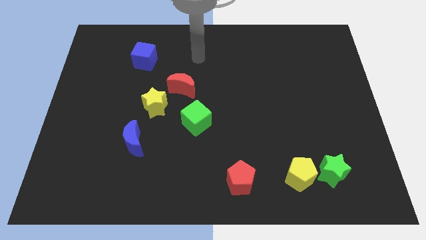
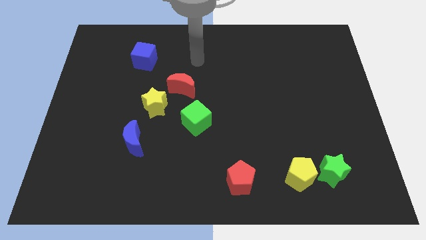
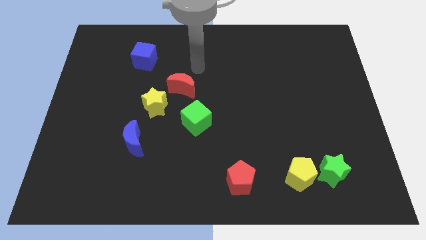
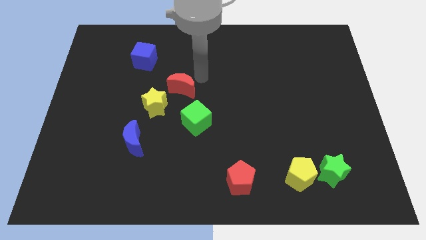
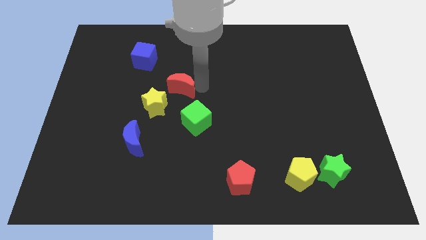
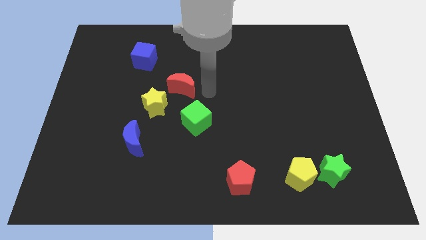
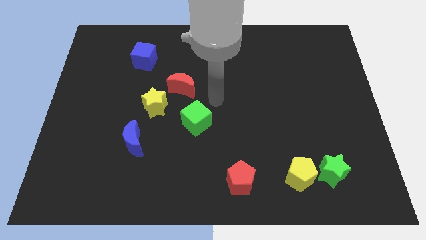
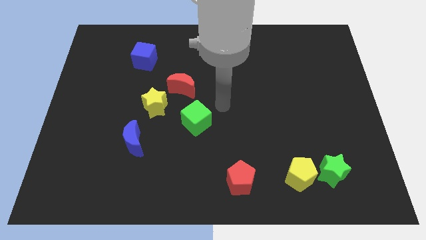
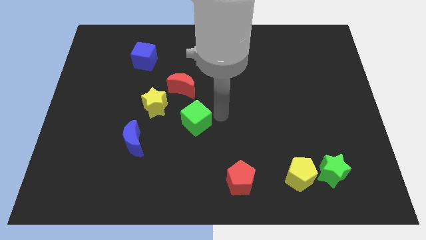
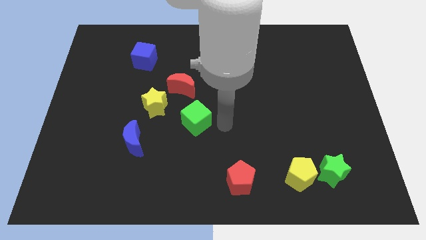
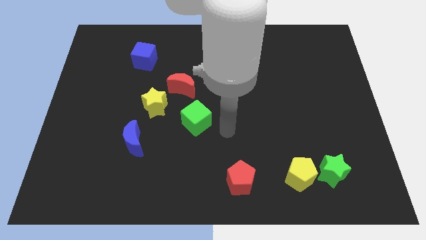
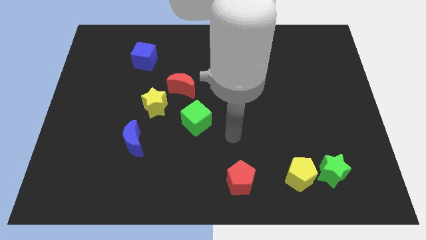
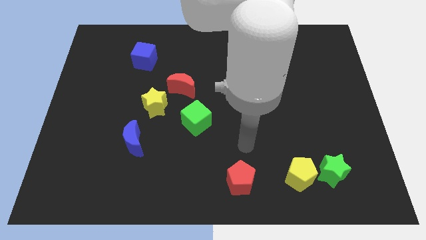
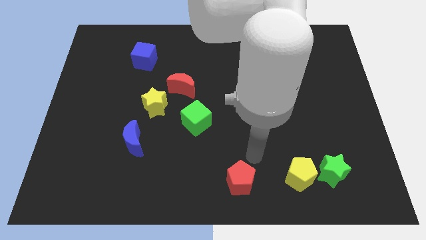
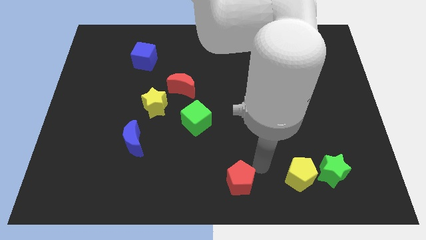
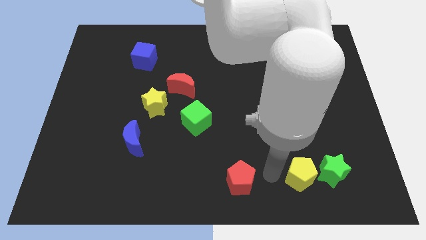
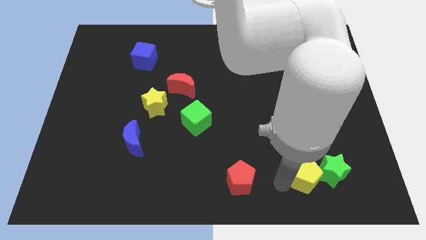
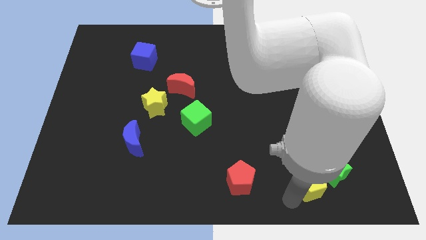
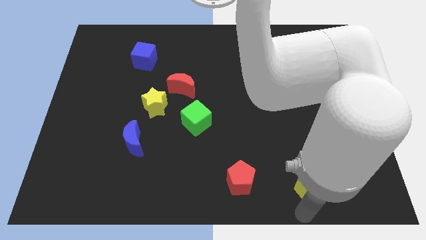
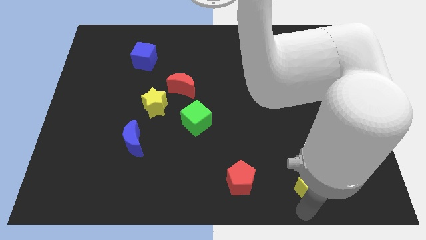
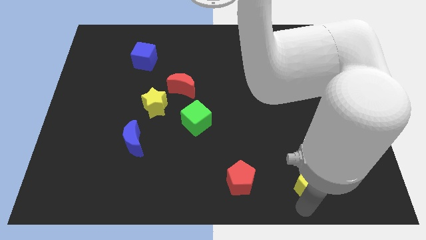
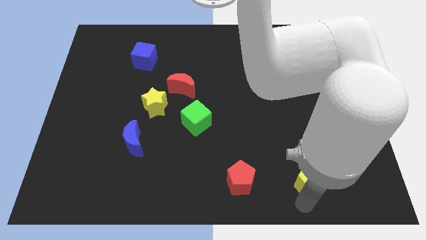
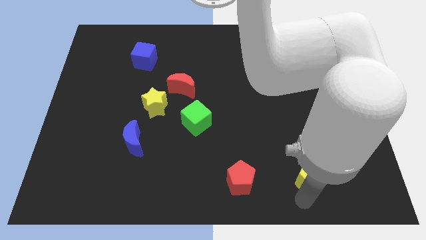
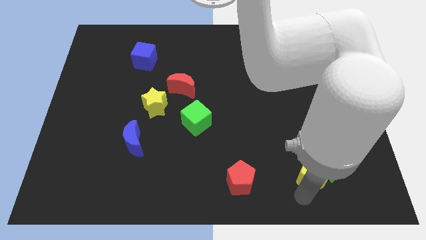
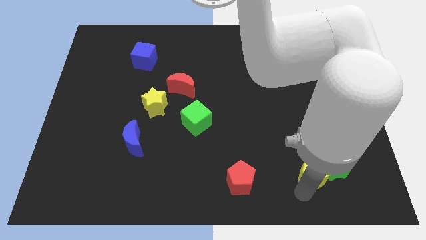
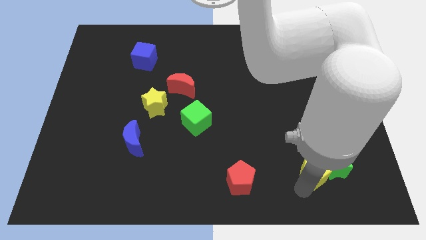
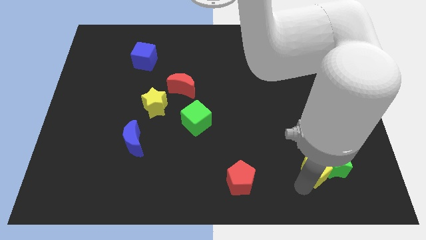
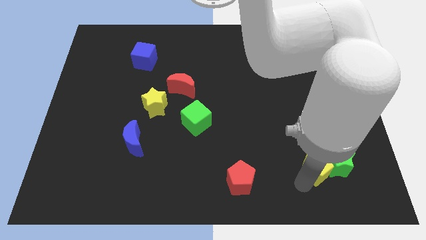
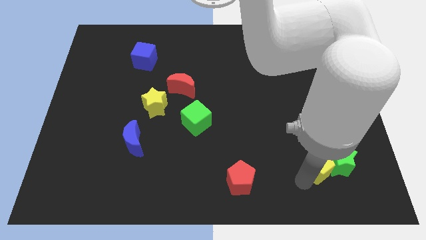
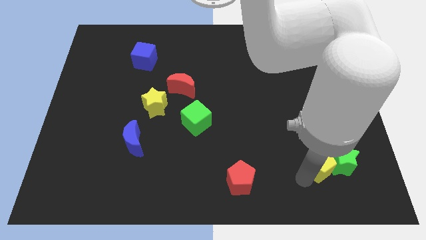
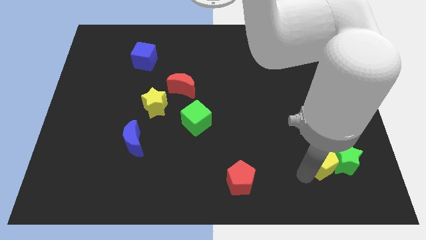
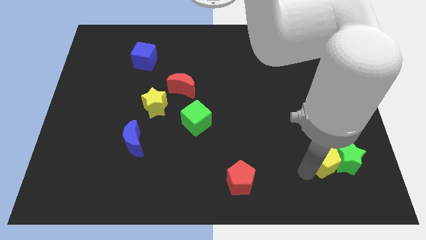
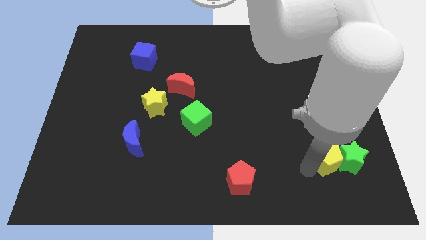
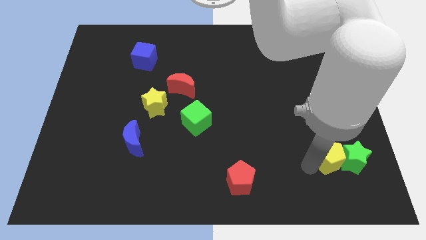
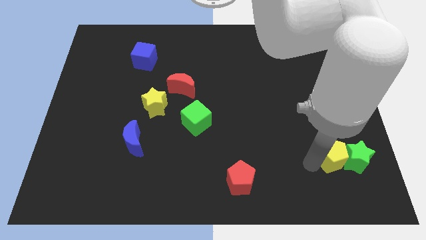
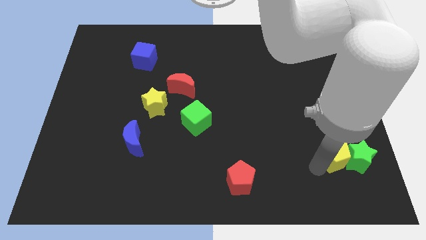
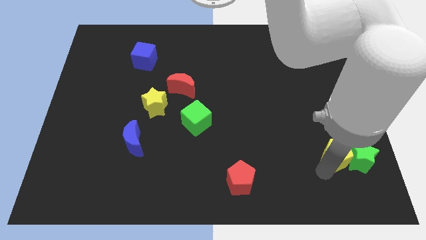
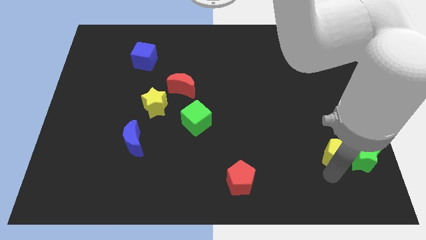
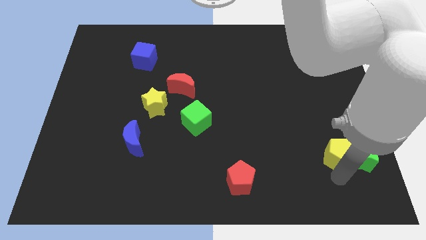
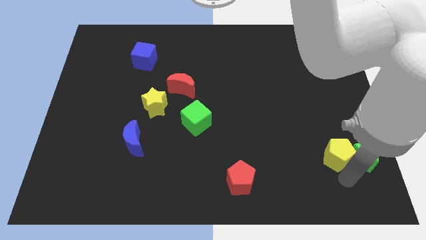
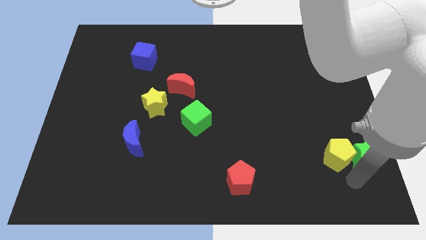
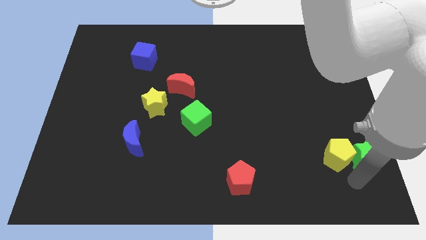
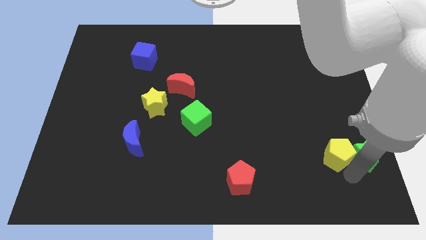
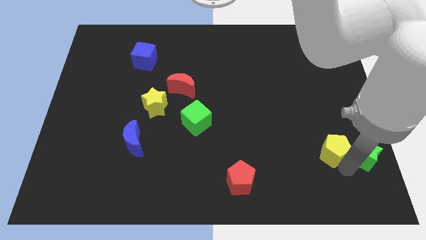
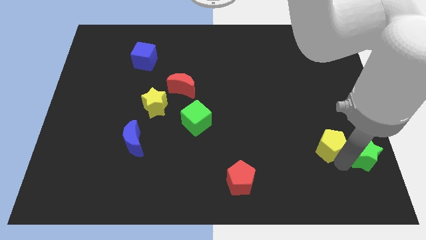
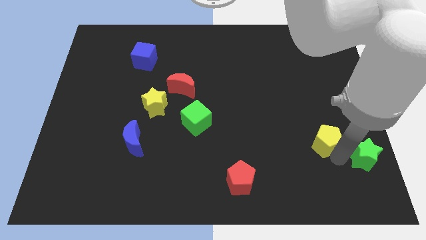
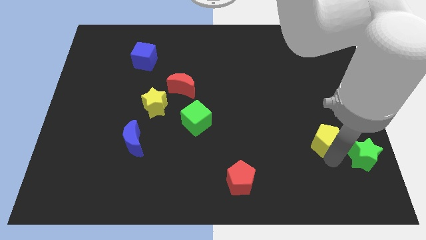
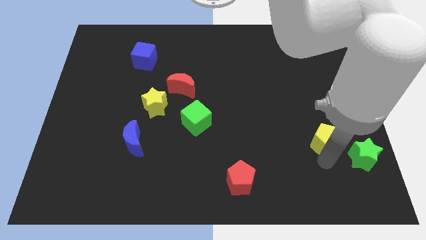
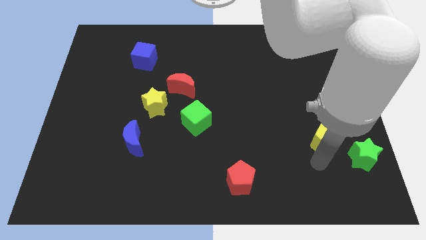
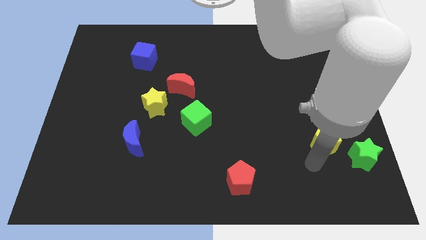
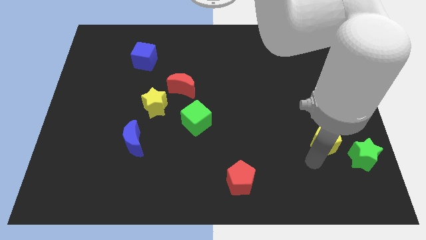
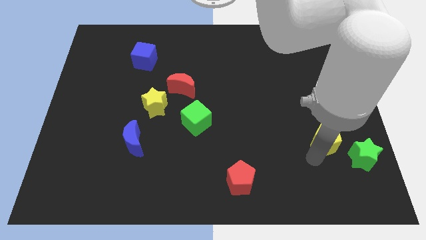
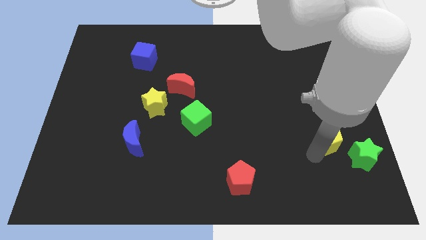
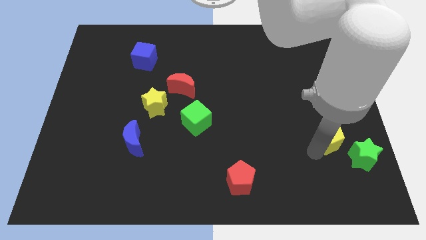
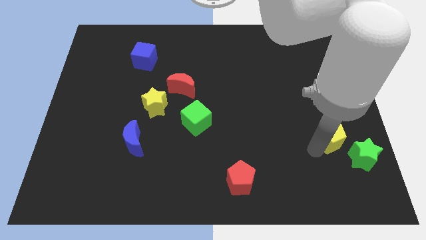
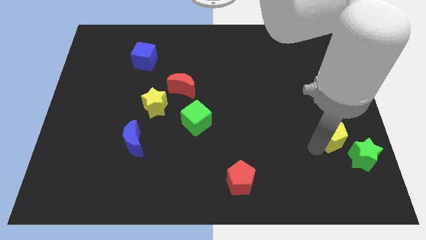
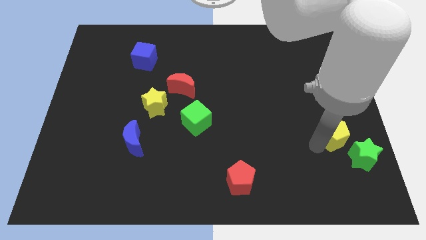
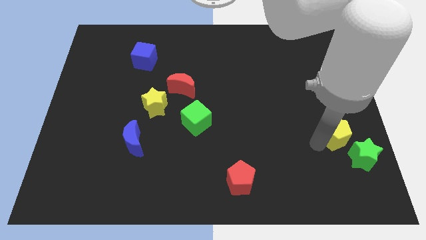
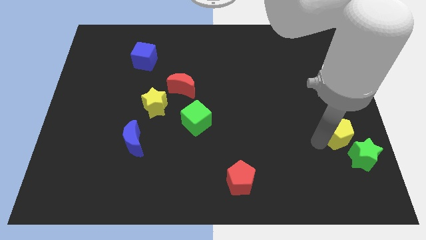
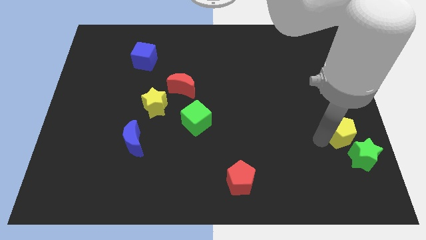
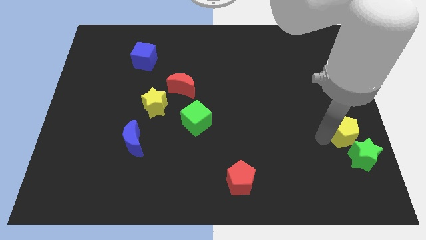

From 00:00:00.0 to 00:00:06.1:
slide the yellow pentagon to the right side

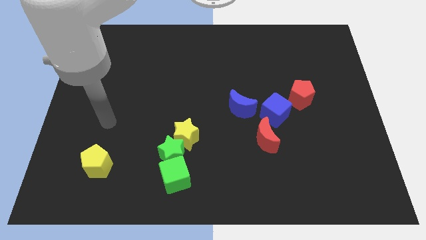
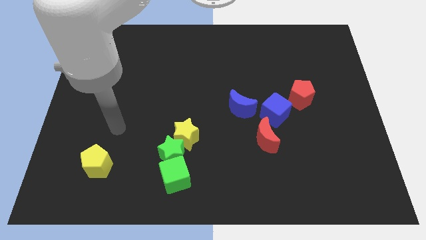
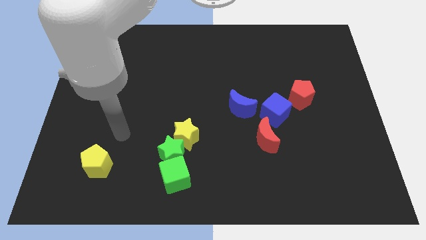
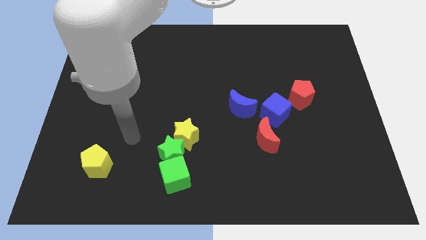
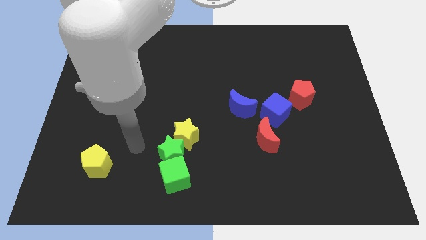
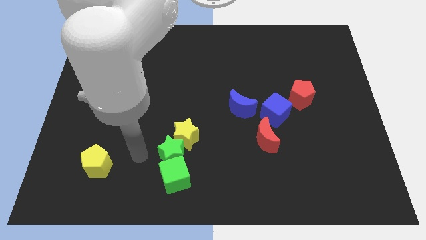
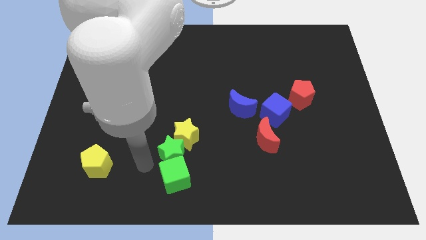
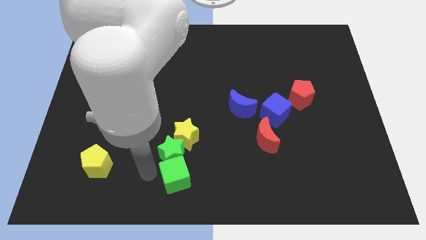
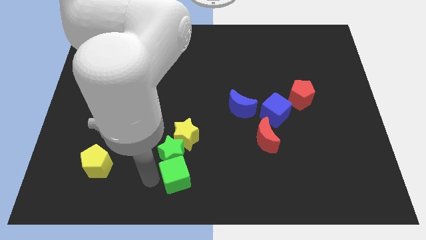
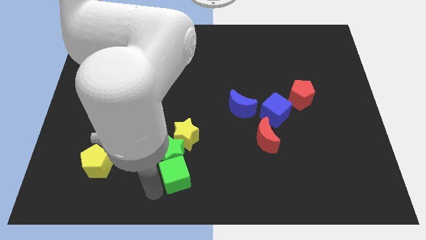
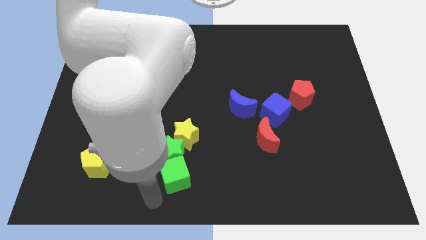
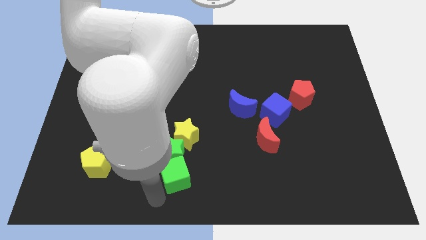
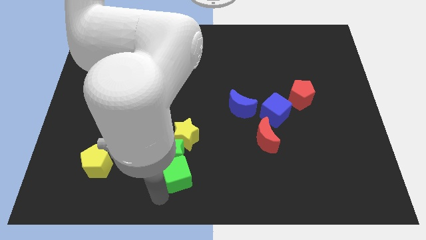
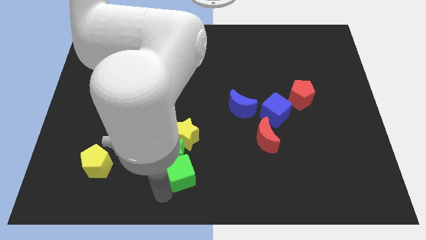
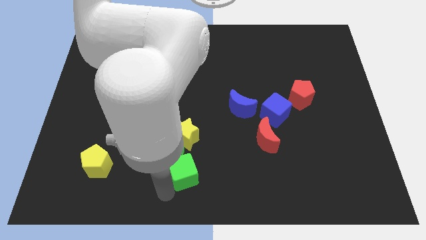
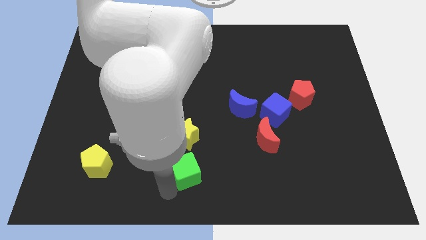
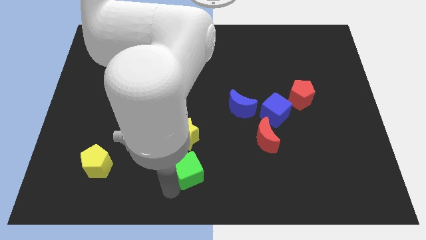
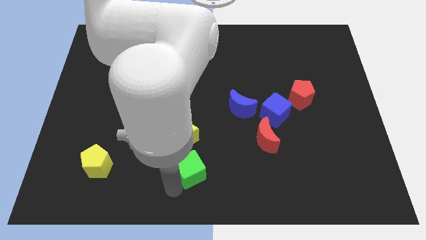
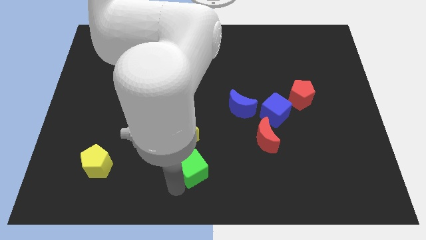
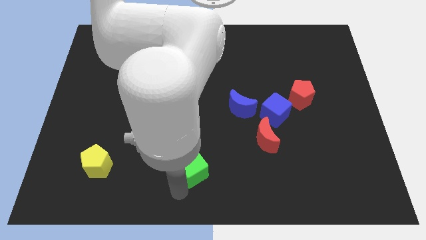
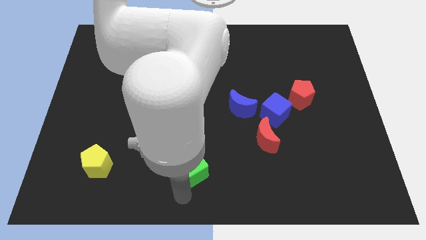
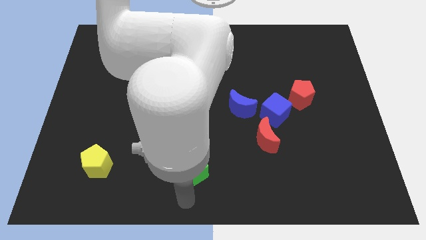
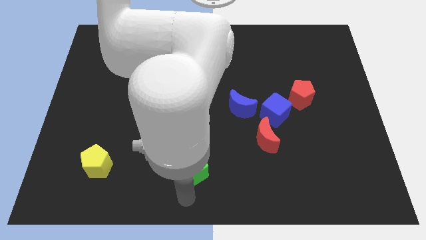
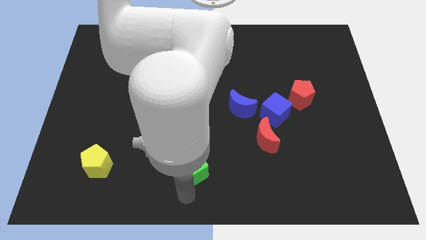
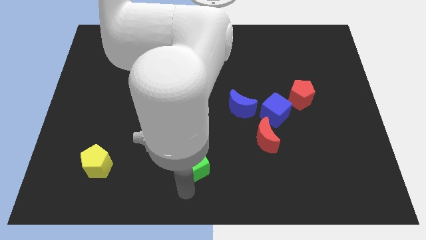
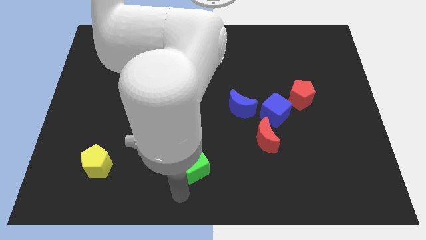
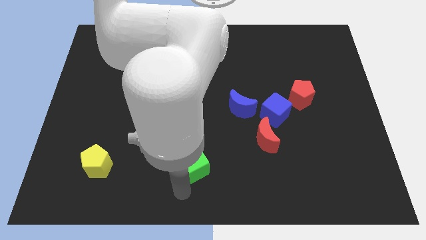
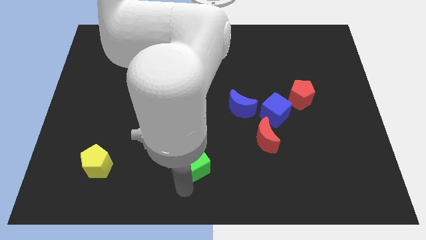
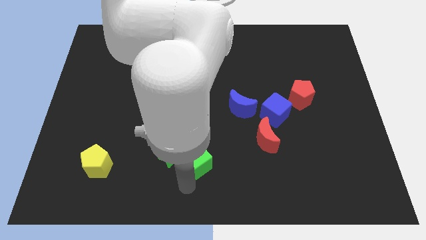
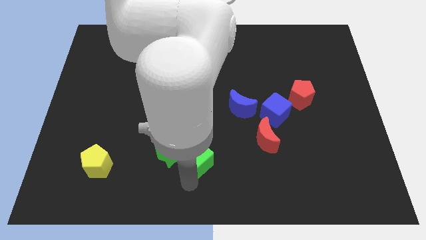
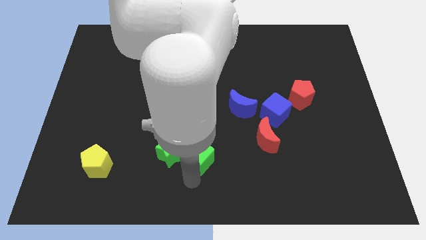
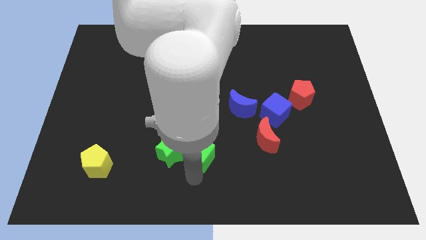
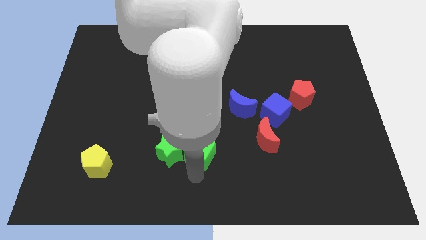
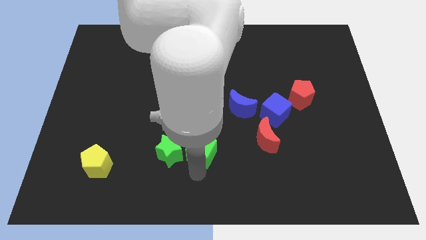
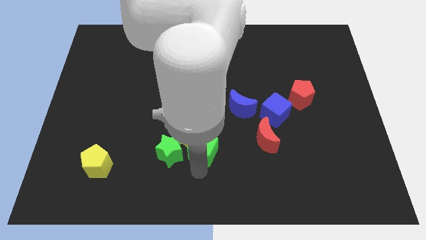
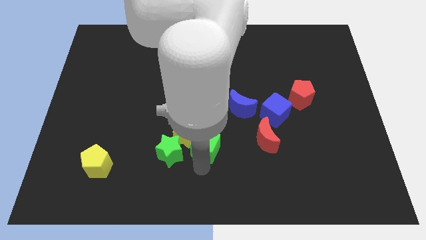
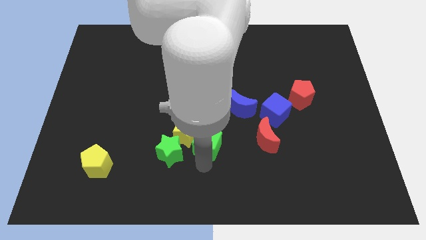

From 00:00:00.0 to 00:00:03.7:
slide the green cube to the middle of the board
